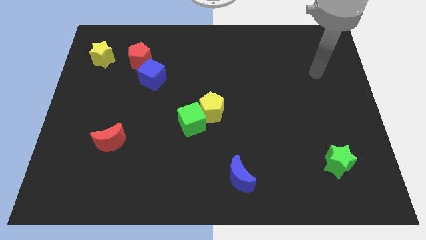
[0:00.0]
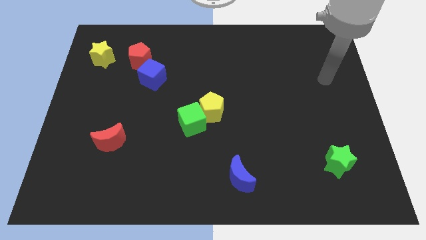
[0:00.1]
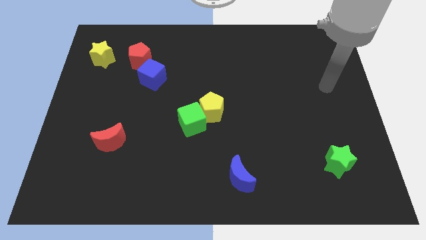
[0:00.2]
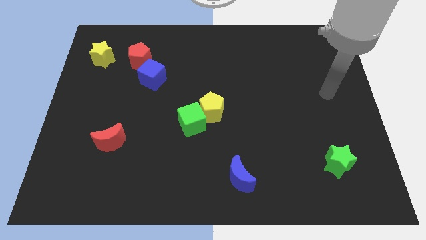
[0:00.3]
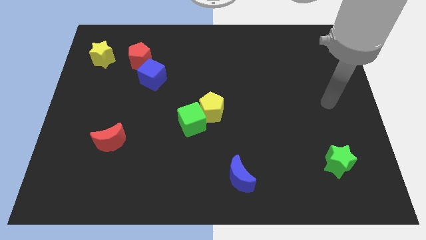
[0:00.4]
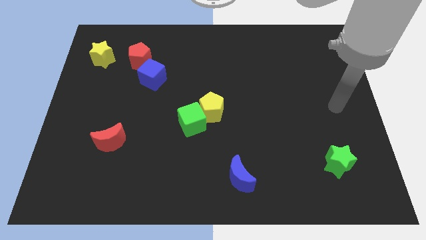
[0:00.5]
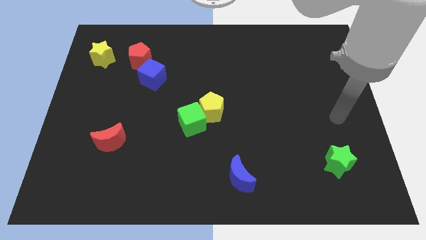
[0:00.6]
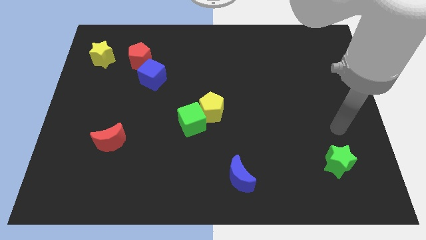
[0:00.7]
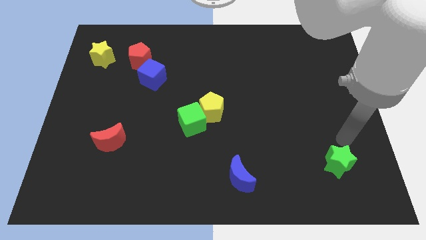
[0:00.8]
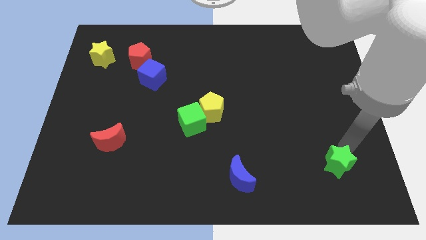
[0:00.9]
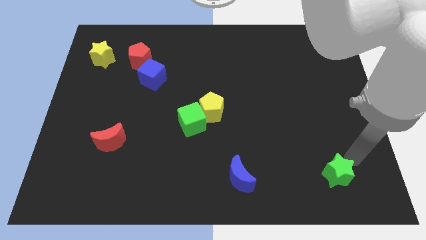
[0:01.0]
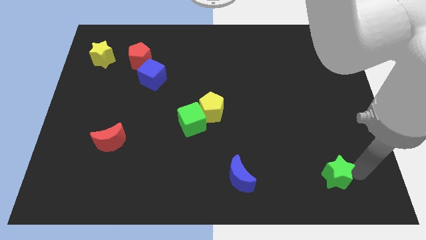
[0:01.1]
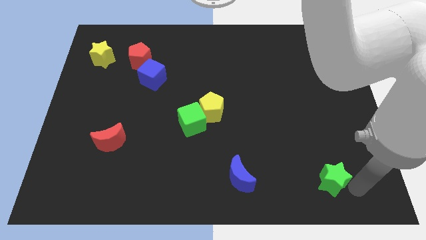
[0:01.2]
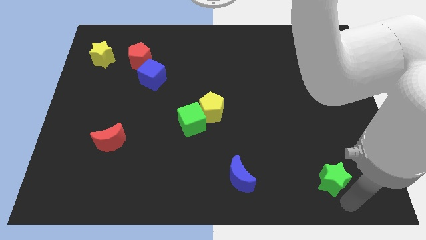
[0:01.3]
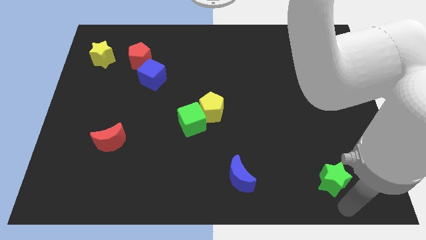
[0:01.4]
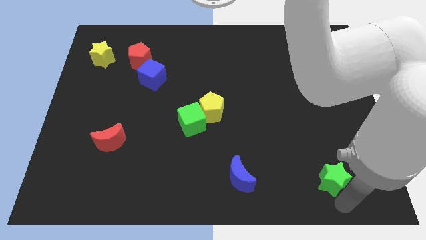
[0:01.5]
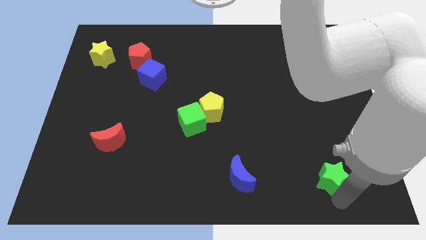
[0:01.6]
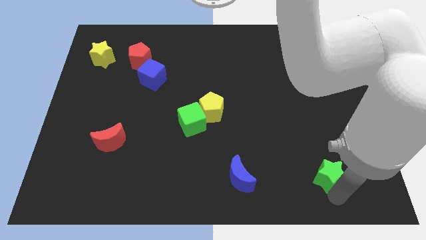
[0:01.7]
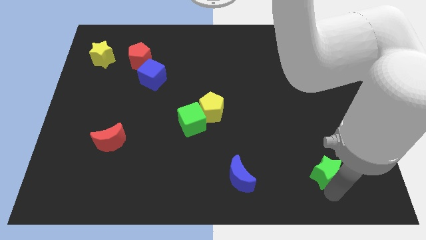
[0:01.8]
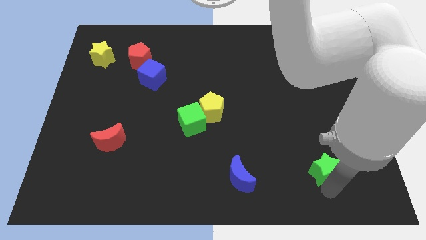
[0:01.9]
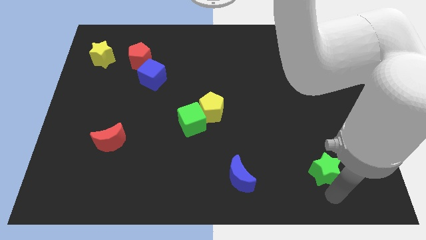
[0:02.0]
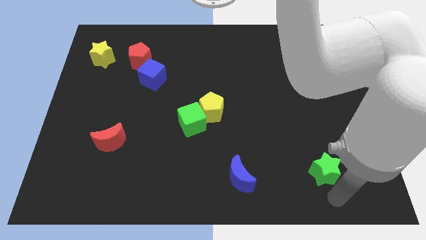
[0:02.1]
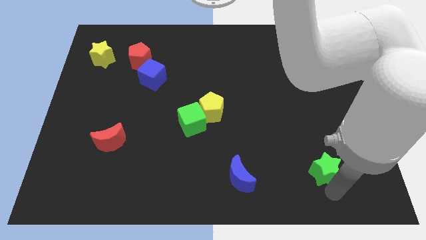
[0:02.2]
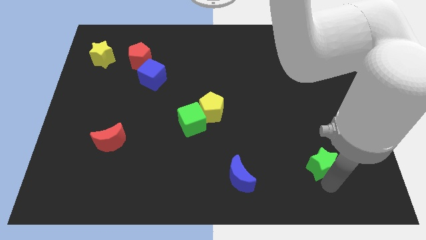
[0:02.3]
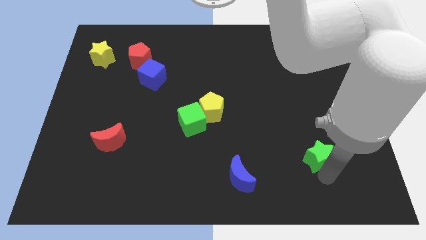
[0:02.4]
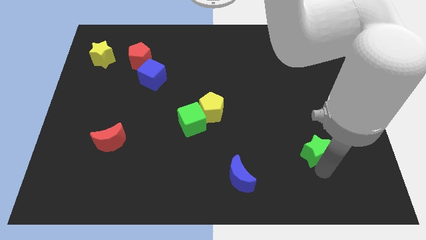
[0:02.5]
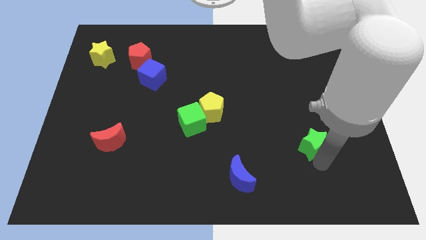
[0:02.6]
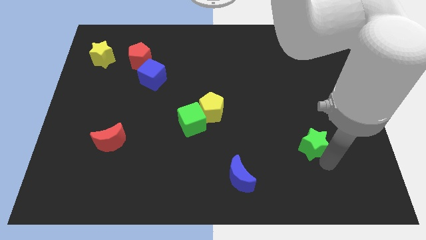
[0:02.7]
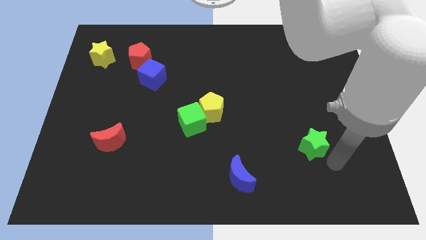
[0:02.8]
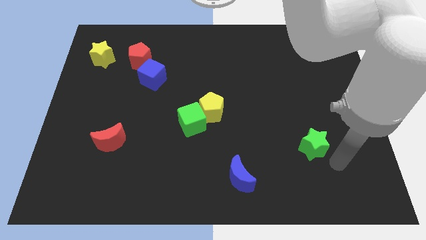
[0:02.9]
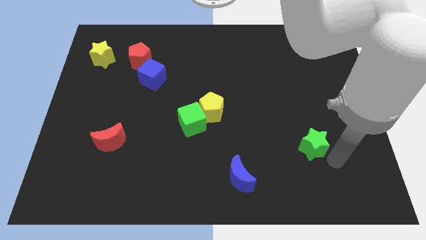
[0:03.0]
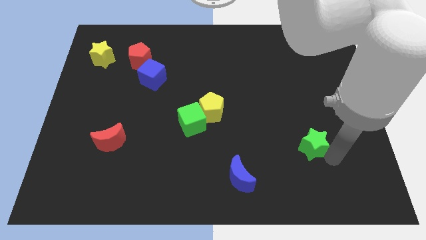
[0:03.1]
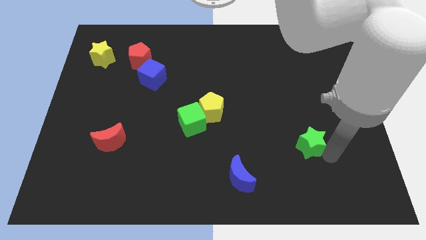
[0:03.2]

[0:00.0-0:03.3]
move the green star a little bit upwards and left

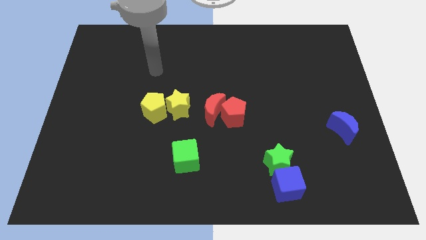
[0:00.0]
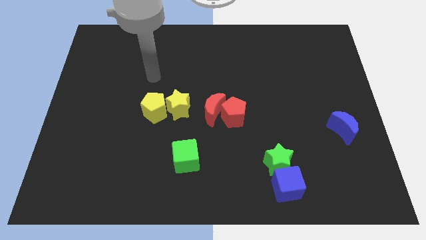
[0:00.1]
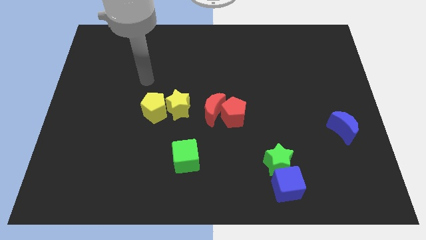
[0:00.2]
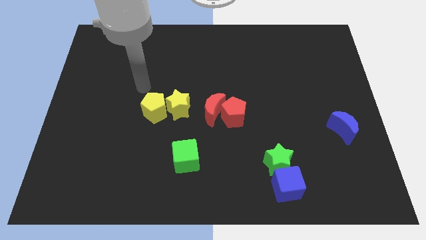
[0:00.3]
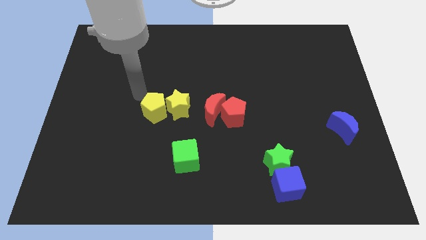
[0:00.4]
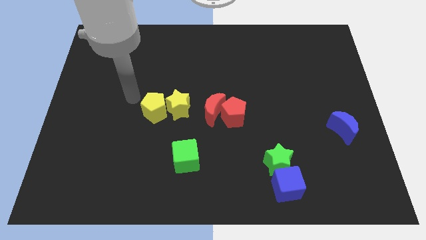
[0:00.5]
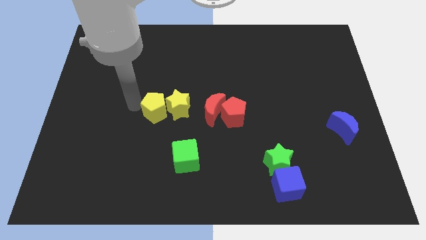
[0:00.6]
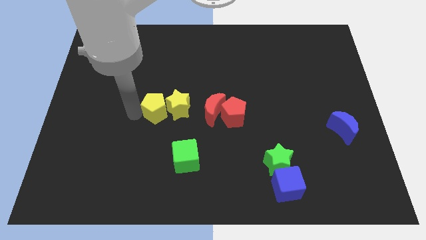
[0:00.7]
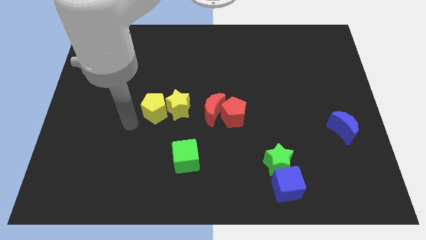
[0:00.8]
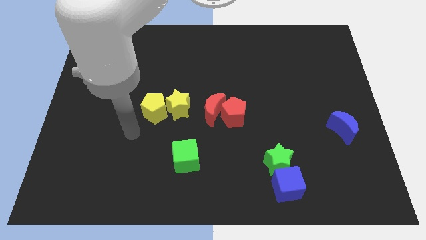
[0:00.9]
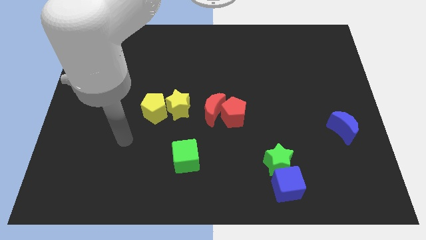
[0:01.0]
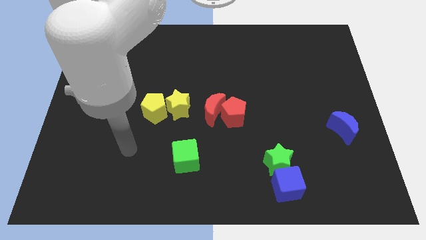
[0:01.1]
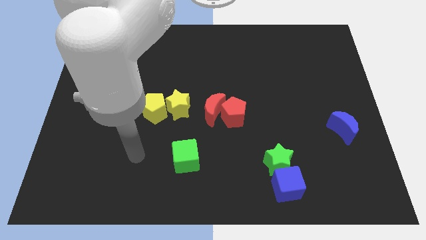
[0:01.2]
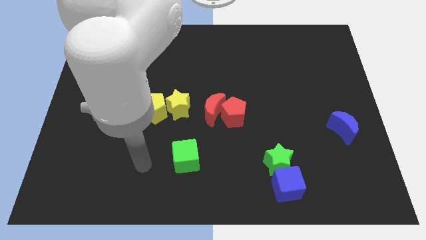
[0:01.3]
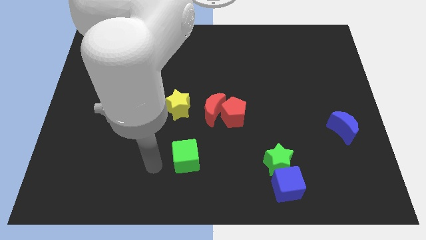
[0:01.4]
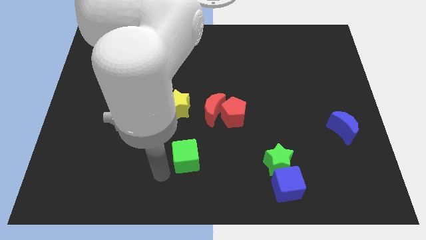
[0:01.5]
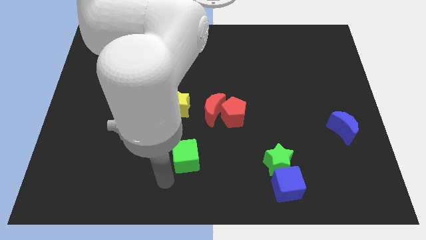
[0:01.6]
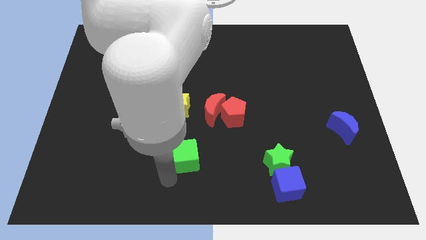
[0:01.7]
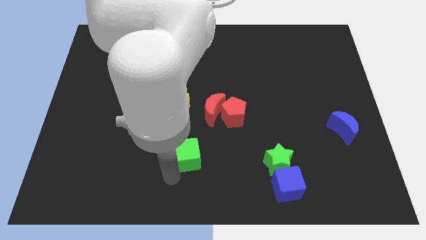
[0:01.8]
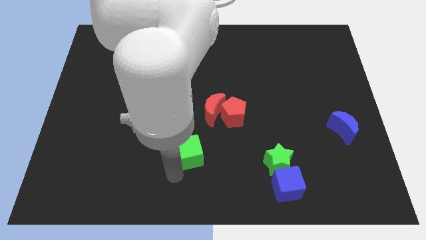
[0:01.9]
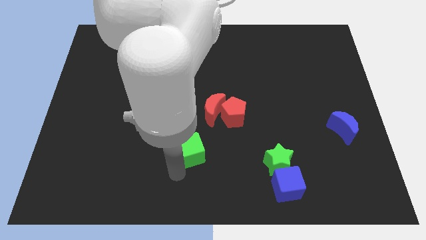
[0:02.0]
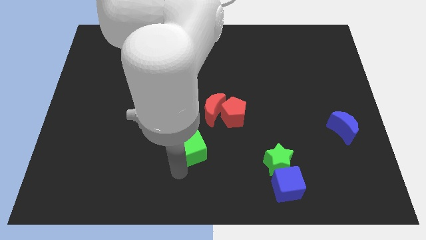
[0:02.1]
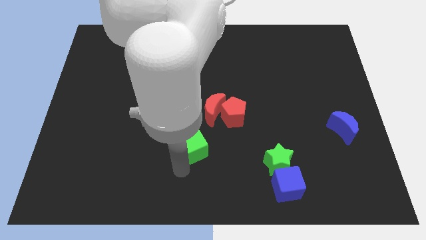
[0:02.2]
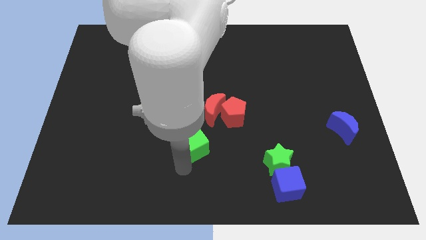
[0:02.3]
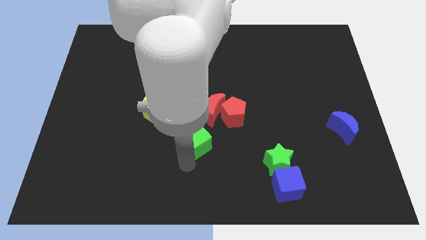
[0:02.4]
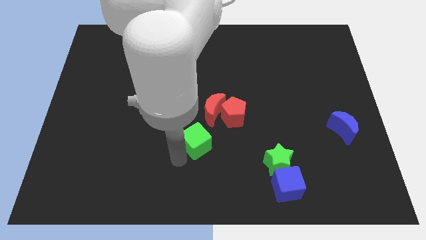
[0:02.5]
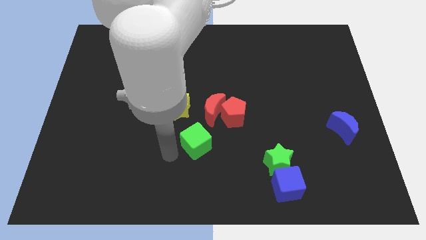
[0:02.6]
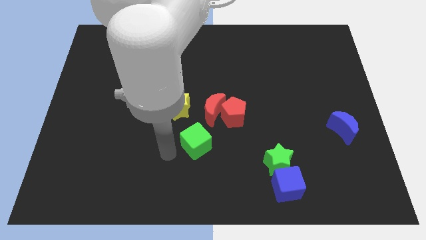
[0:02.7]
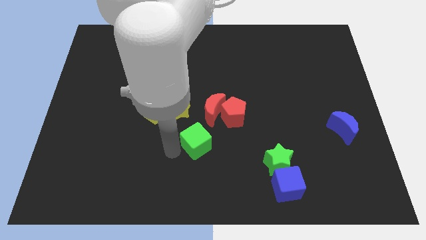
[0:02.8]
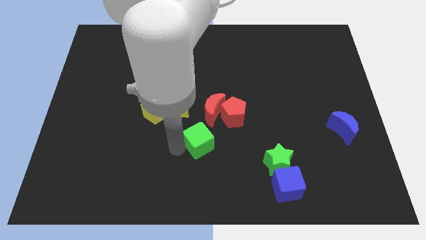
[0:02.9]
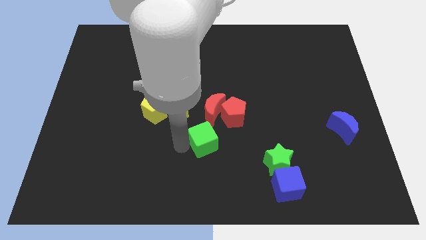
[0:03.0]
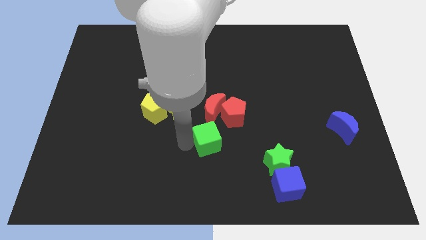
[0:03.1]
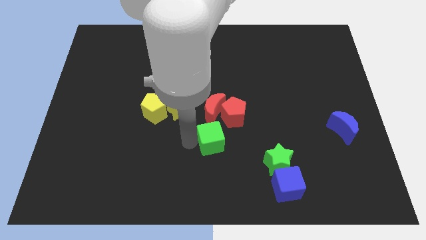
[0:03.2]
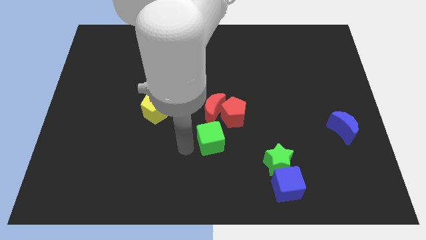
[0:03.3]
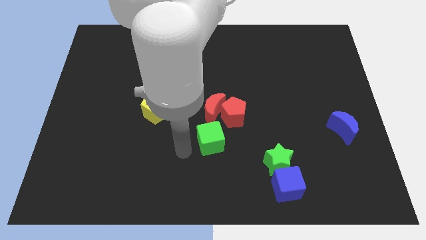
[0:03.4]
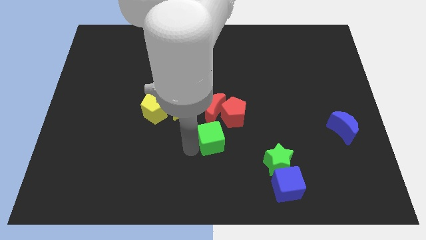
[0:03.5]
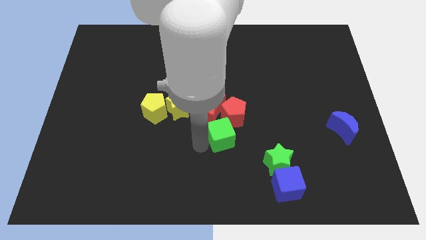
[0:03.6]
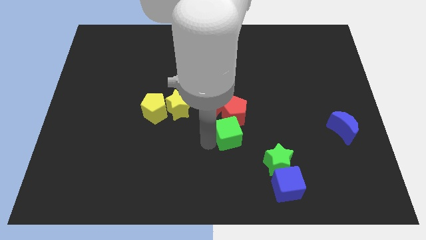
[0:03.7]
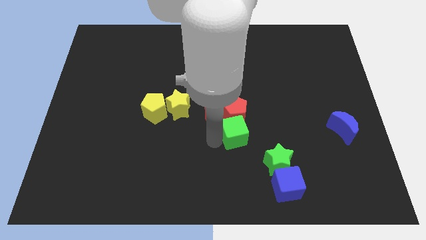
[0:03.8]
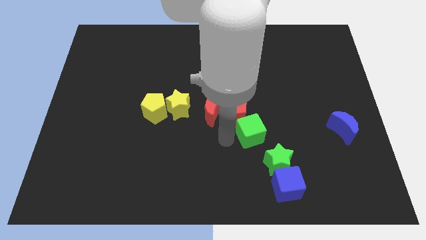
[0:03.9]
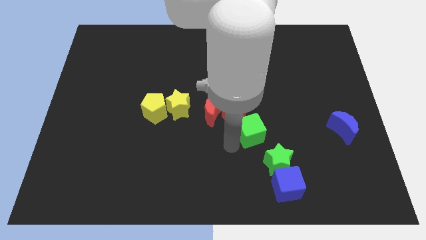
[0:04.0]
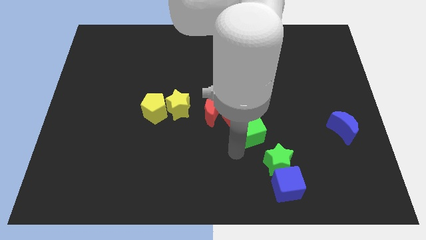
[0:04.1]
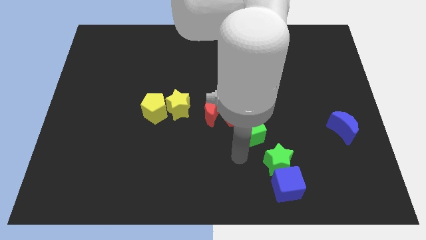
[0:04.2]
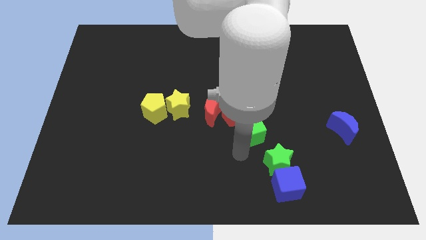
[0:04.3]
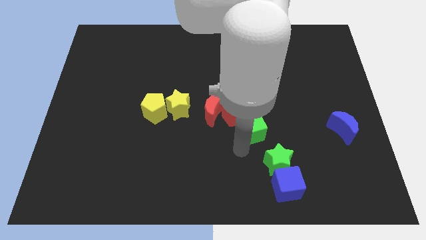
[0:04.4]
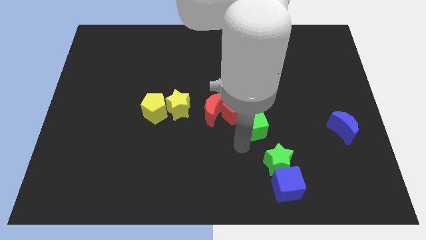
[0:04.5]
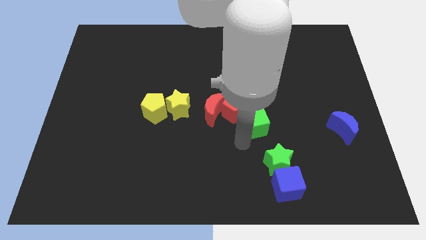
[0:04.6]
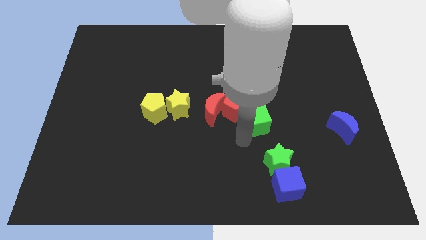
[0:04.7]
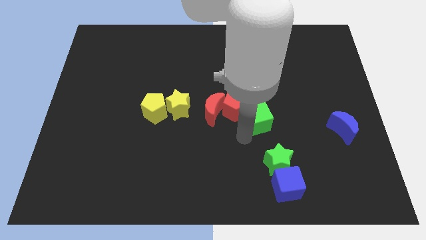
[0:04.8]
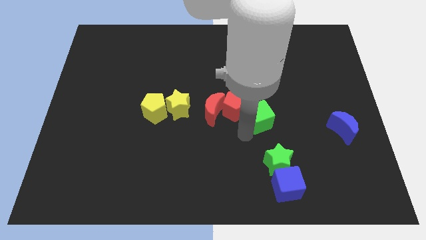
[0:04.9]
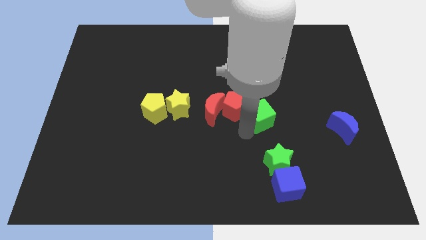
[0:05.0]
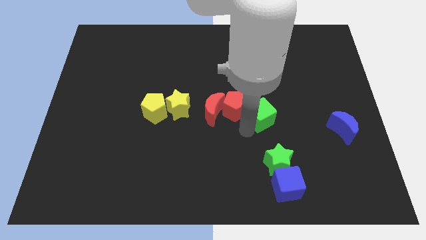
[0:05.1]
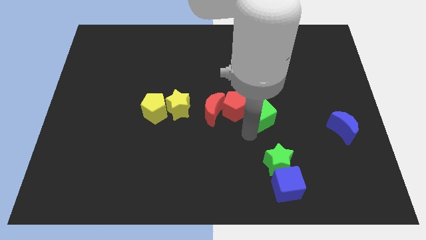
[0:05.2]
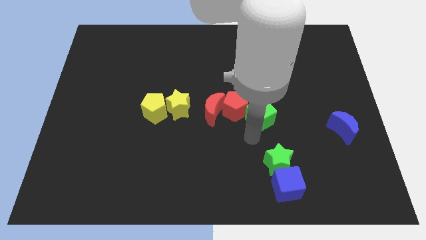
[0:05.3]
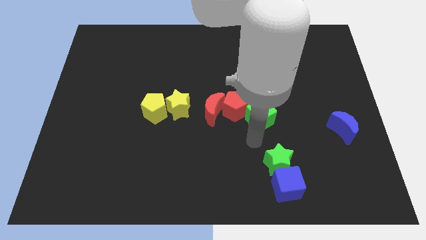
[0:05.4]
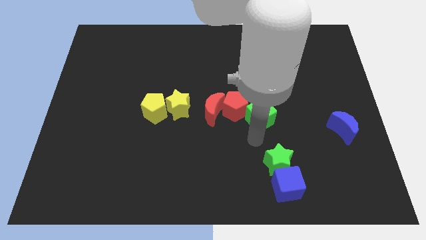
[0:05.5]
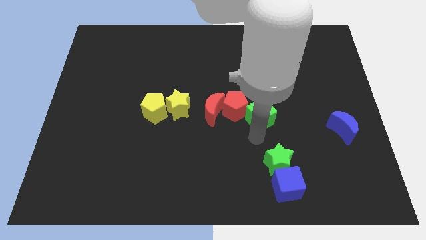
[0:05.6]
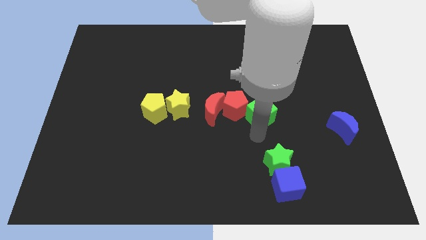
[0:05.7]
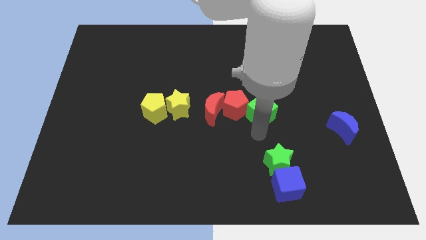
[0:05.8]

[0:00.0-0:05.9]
move the green cube diagonally up and right
